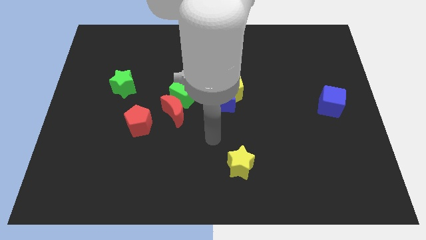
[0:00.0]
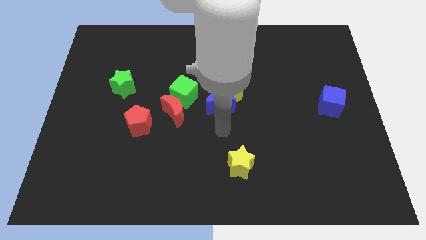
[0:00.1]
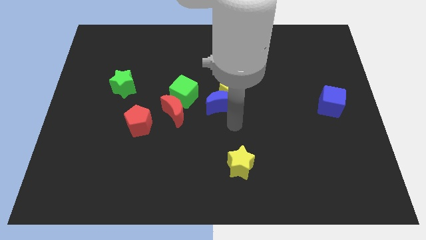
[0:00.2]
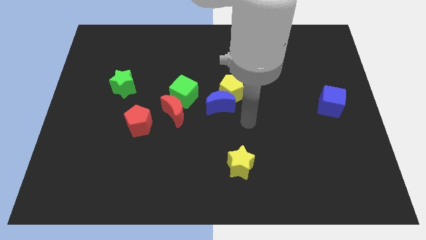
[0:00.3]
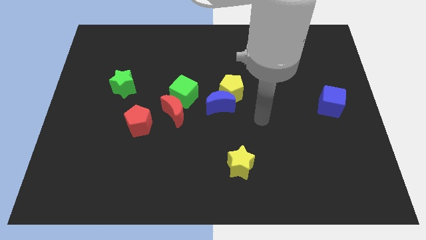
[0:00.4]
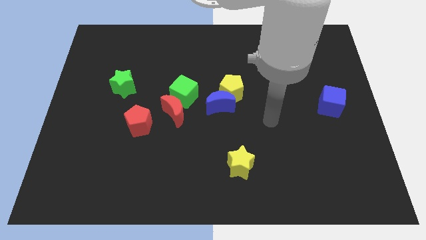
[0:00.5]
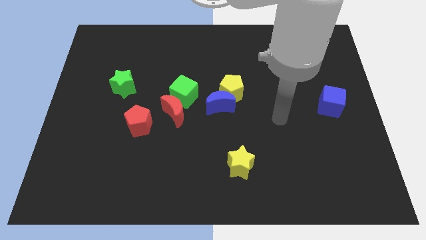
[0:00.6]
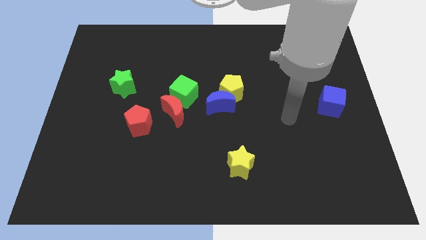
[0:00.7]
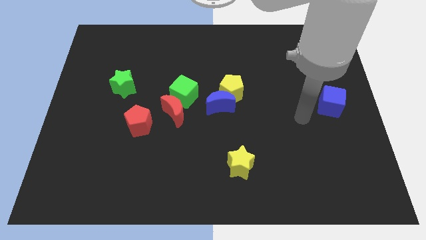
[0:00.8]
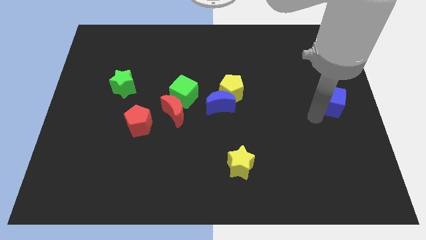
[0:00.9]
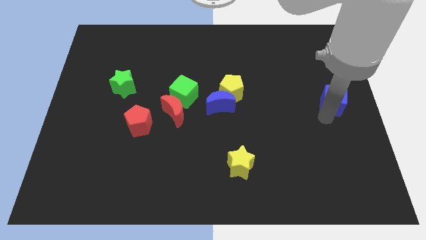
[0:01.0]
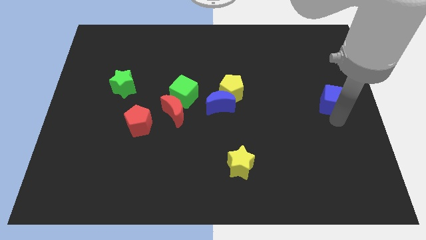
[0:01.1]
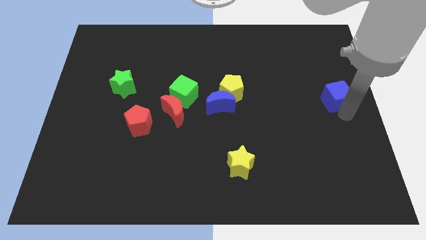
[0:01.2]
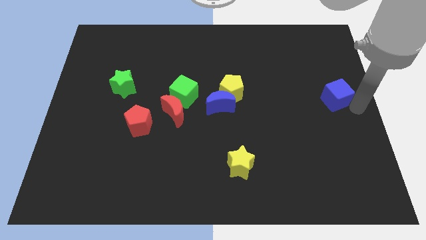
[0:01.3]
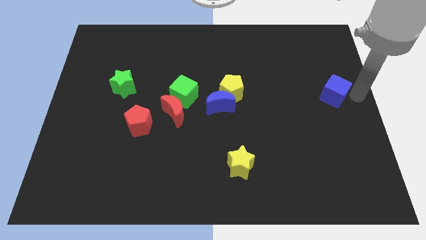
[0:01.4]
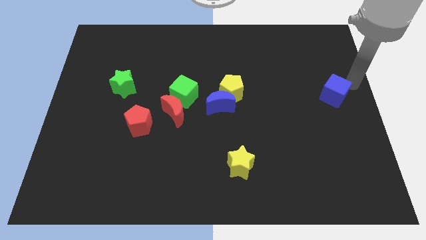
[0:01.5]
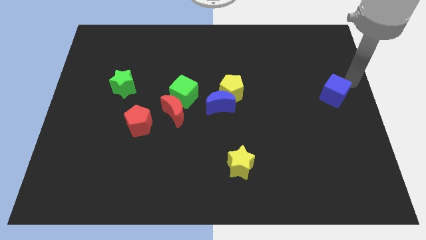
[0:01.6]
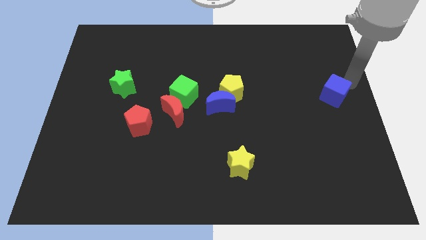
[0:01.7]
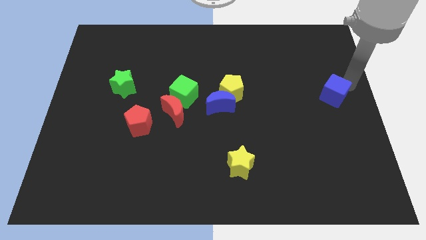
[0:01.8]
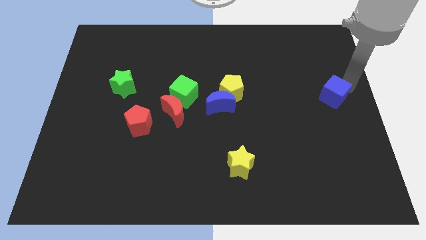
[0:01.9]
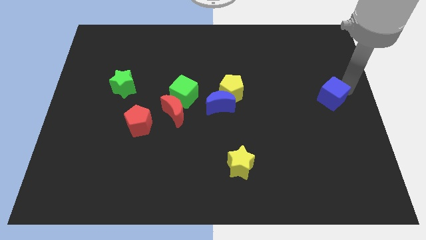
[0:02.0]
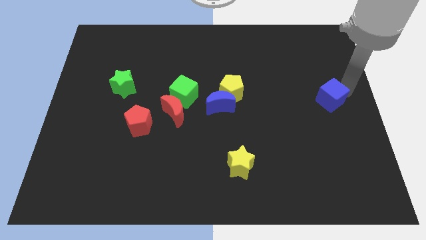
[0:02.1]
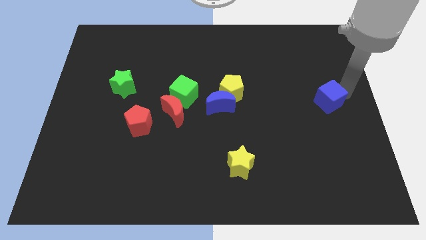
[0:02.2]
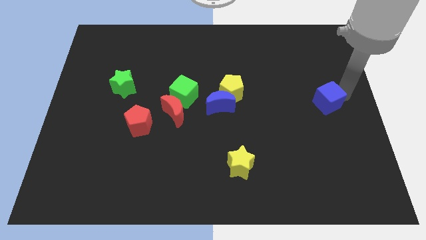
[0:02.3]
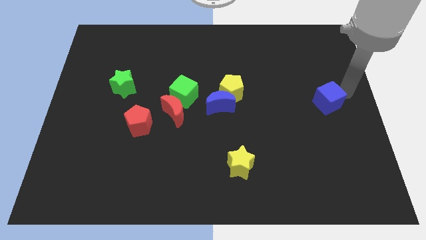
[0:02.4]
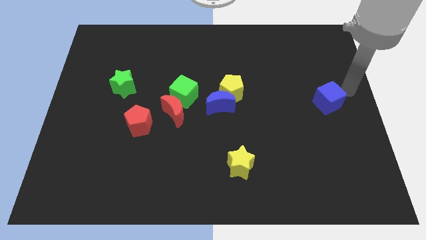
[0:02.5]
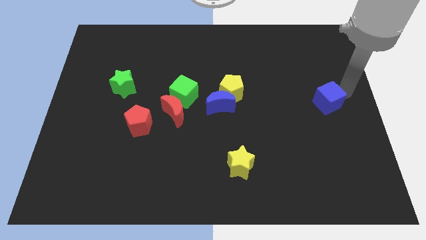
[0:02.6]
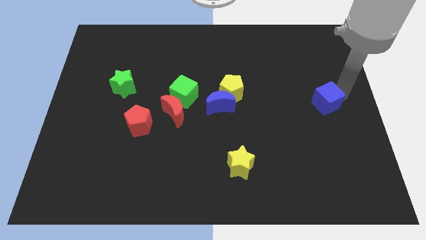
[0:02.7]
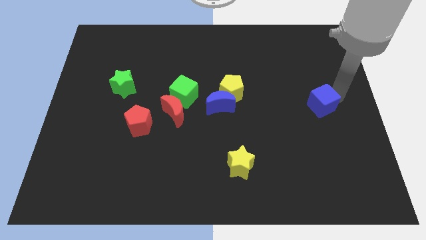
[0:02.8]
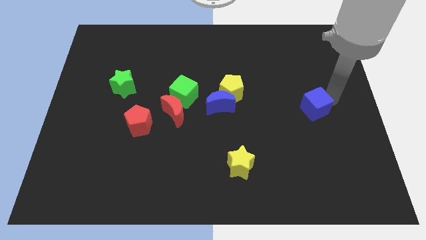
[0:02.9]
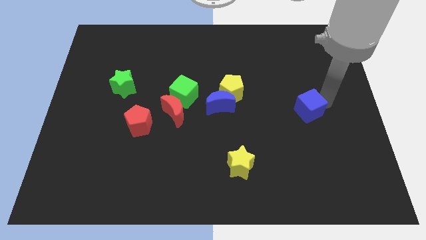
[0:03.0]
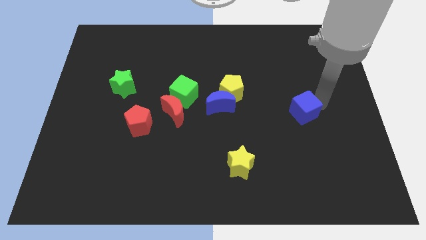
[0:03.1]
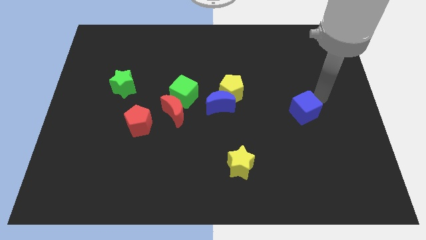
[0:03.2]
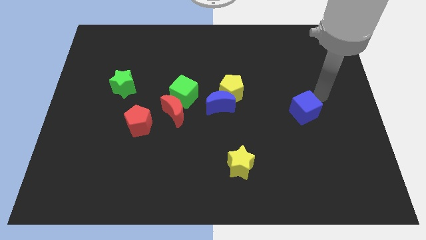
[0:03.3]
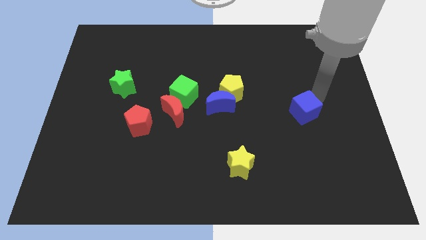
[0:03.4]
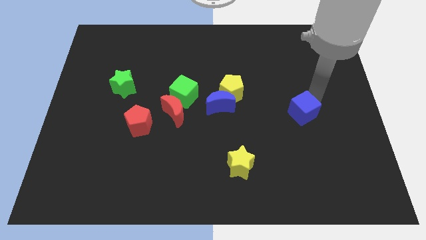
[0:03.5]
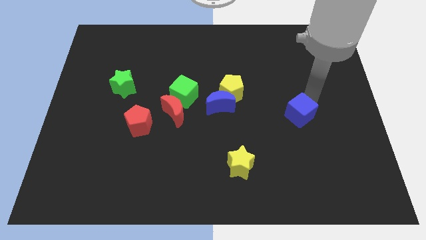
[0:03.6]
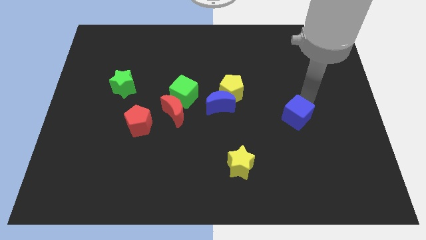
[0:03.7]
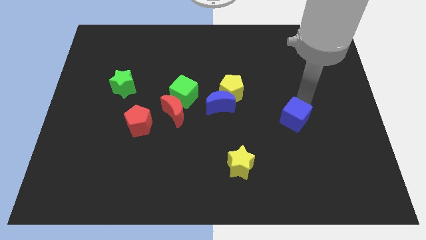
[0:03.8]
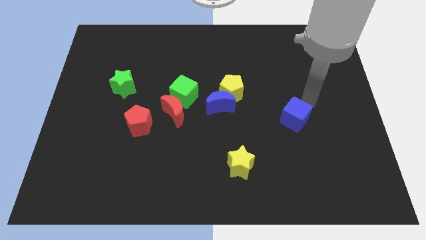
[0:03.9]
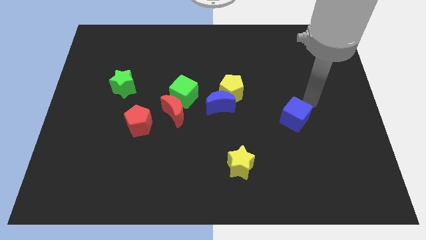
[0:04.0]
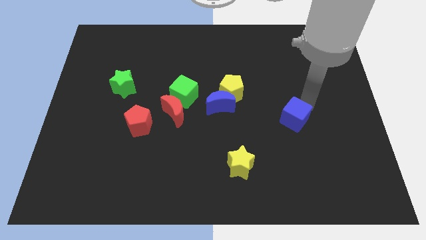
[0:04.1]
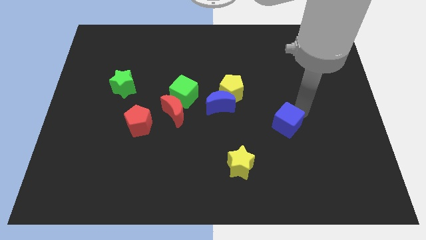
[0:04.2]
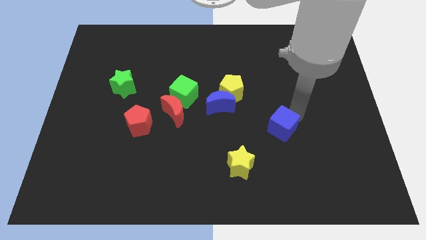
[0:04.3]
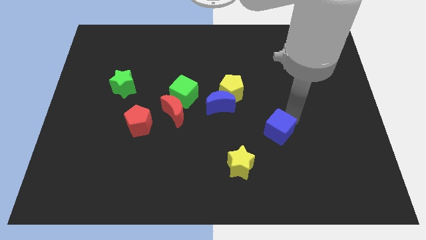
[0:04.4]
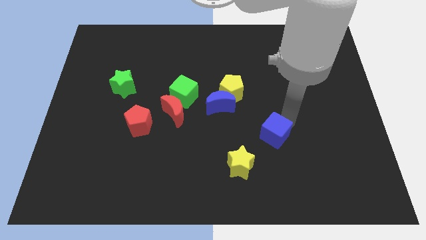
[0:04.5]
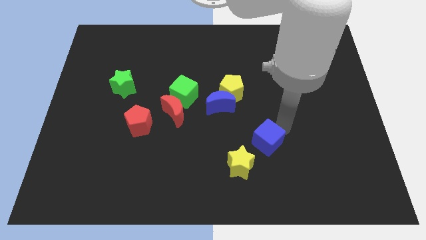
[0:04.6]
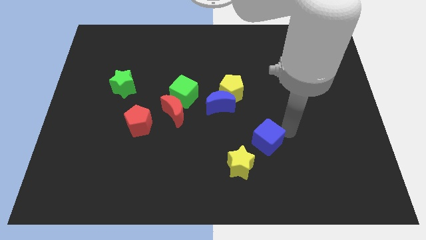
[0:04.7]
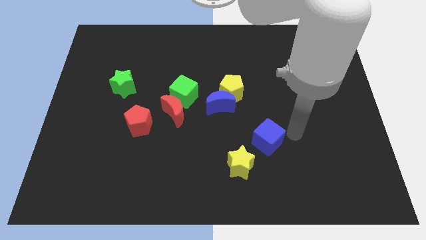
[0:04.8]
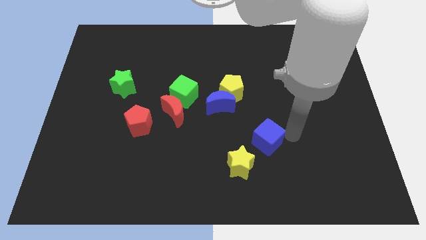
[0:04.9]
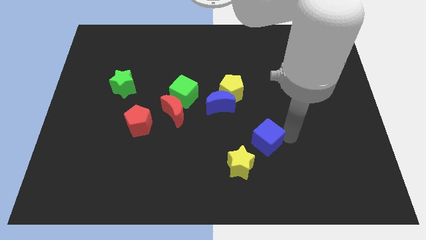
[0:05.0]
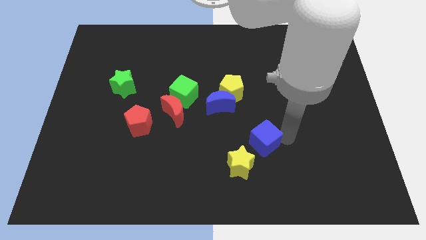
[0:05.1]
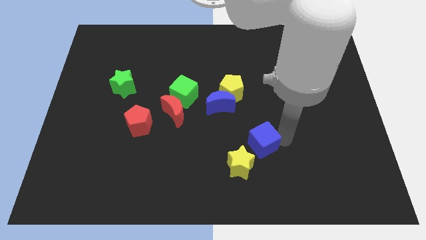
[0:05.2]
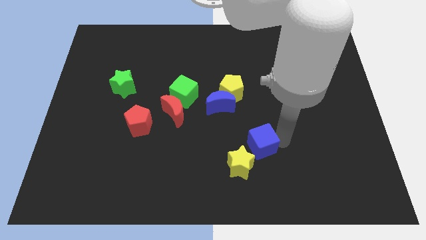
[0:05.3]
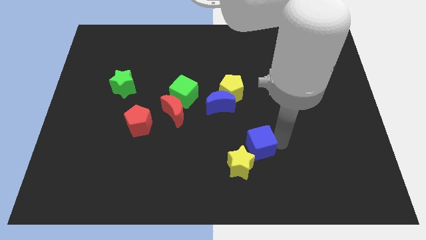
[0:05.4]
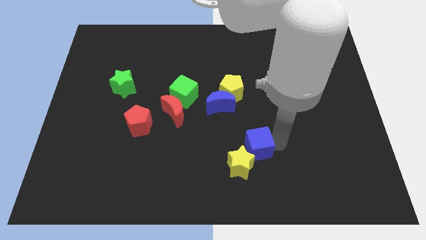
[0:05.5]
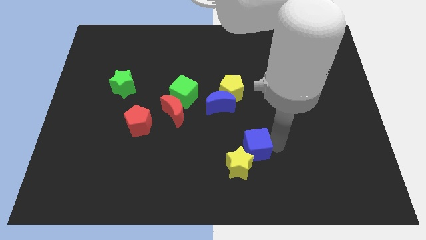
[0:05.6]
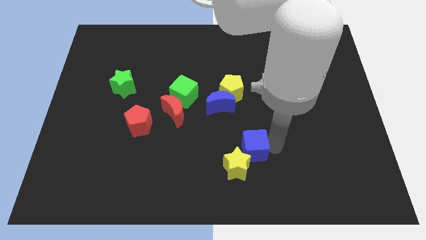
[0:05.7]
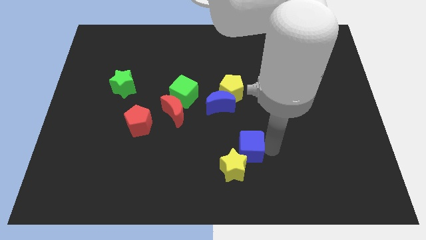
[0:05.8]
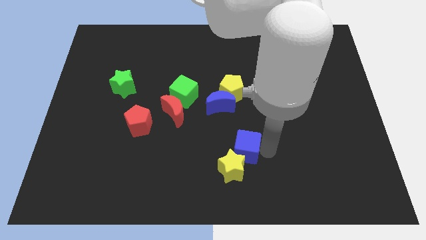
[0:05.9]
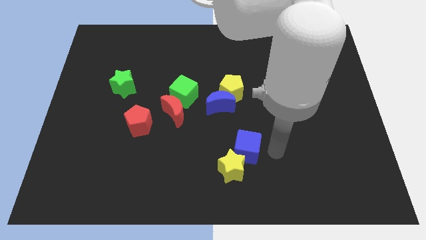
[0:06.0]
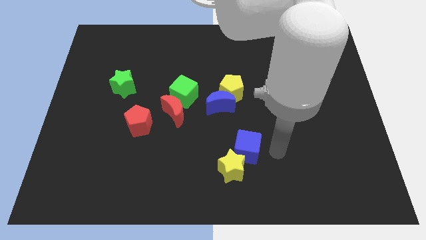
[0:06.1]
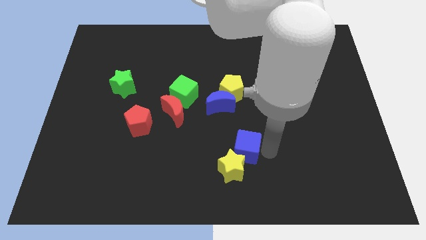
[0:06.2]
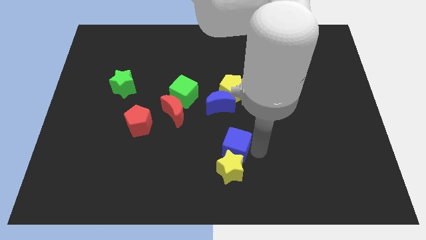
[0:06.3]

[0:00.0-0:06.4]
move the blue cube to the top left of the yellow star

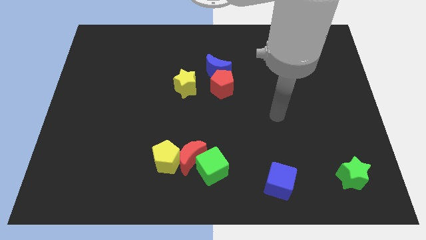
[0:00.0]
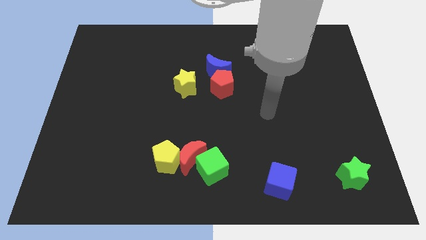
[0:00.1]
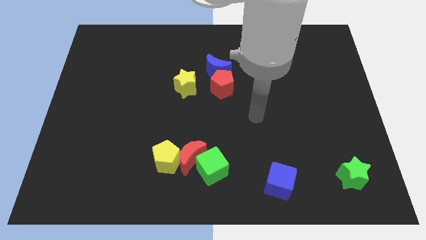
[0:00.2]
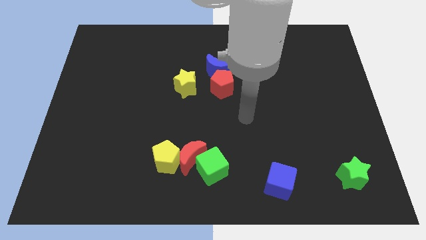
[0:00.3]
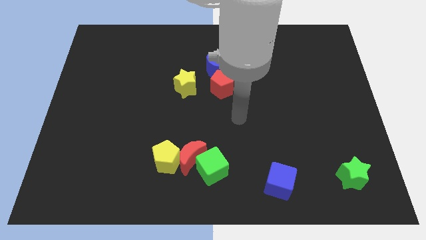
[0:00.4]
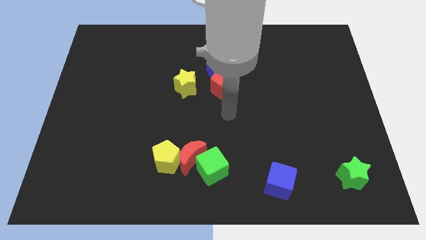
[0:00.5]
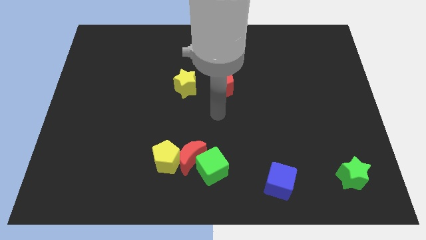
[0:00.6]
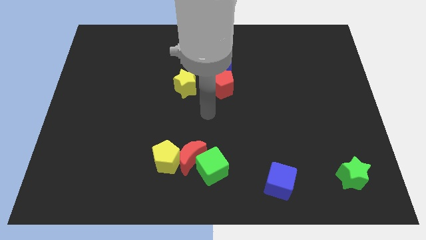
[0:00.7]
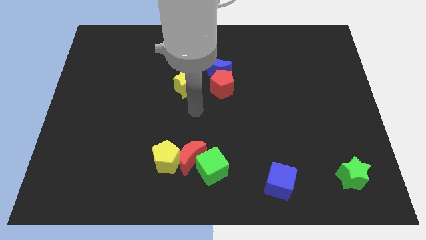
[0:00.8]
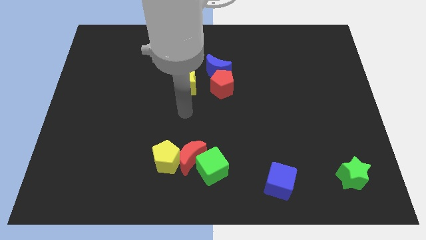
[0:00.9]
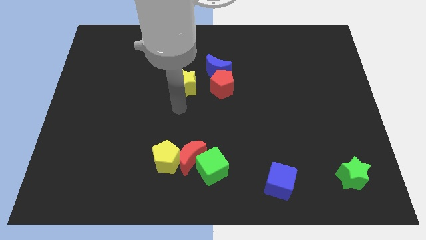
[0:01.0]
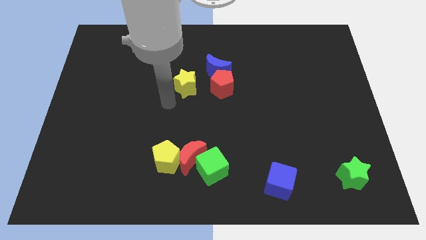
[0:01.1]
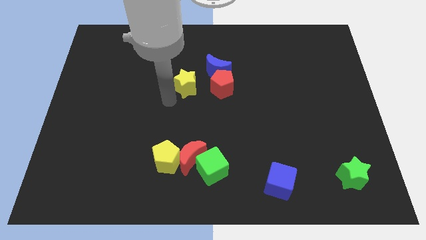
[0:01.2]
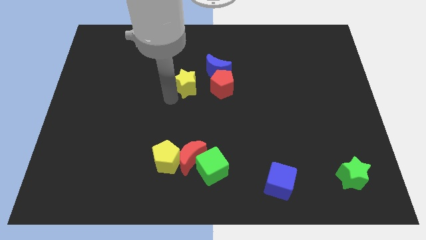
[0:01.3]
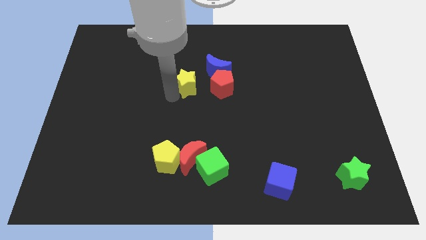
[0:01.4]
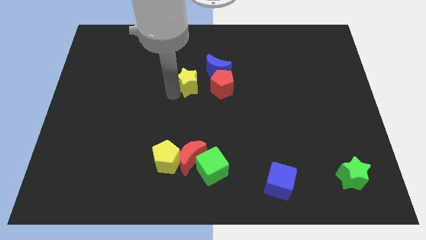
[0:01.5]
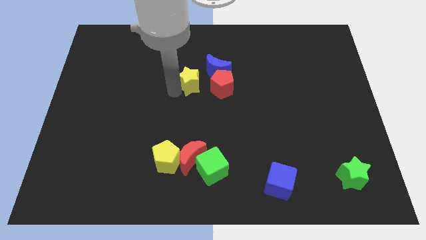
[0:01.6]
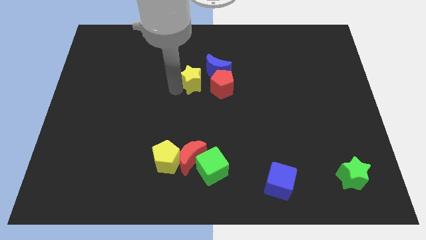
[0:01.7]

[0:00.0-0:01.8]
put the yellow star diagonally up and to the left of the red pentagon
